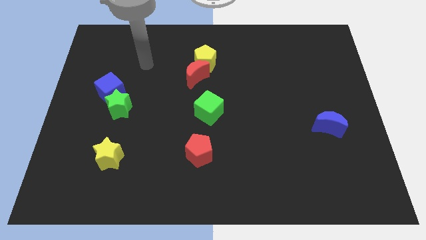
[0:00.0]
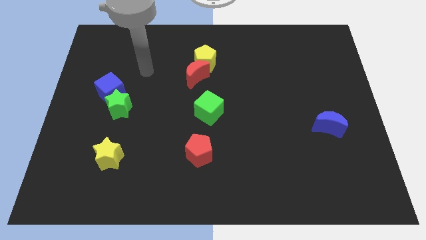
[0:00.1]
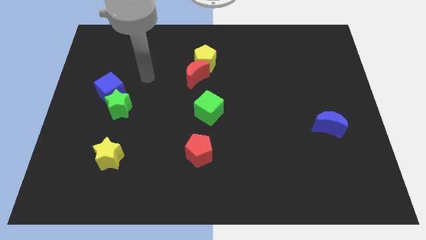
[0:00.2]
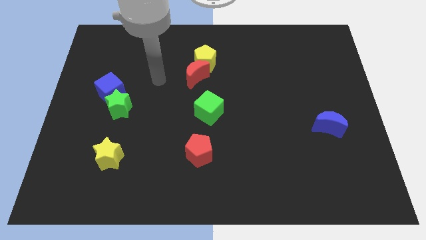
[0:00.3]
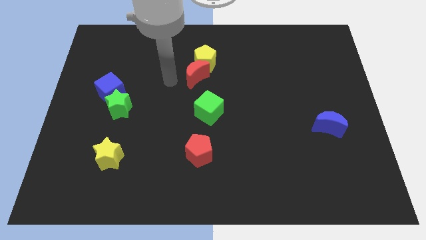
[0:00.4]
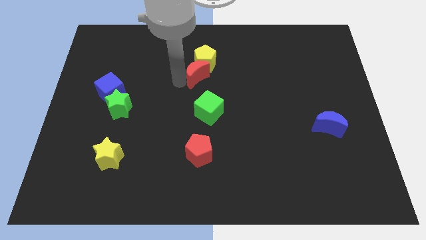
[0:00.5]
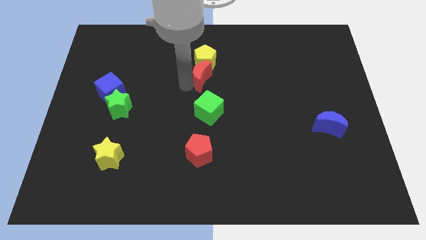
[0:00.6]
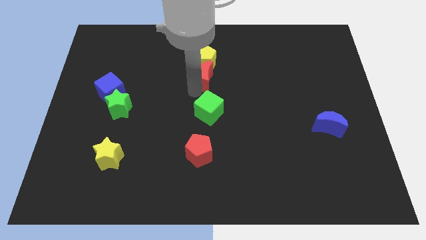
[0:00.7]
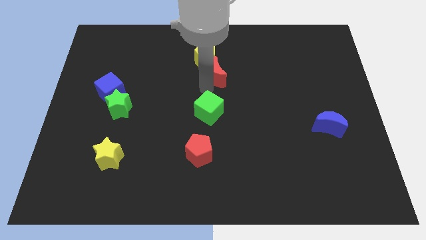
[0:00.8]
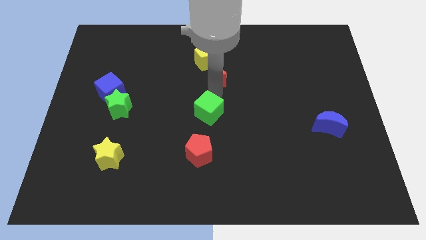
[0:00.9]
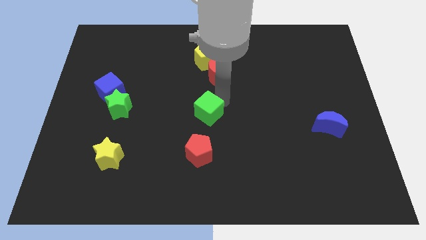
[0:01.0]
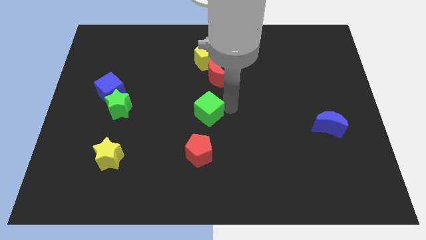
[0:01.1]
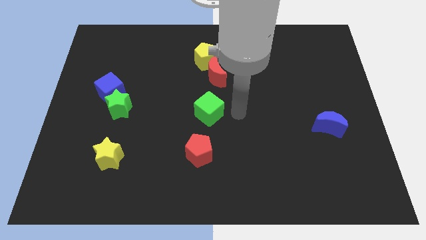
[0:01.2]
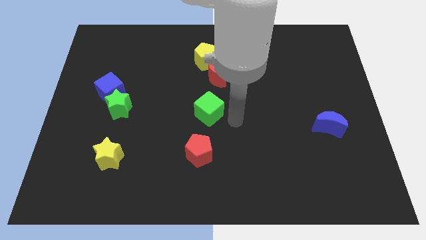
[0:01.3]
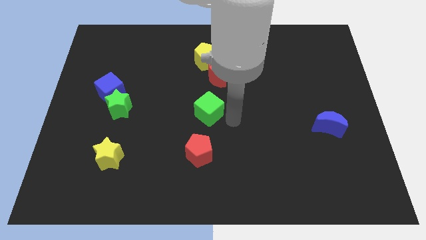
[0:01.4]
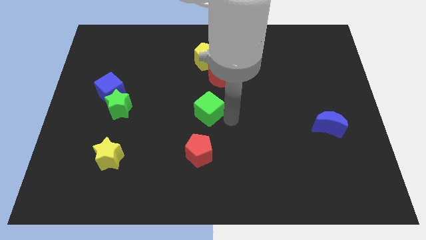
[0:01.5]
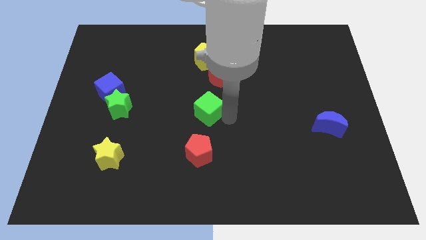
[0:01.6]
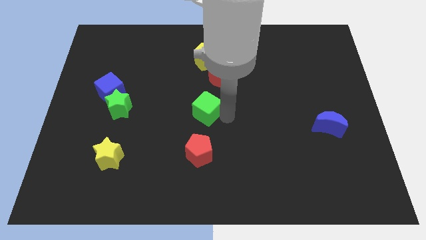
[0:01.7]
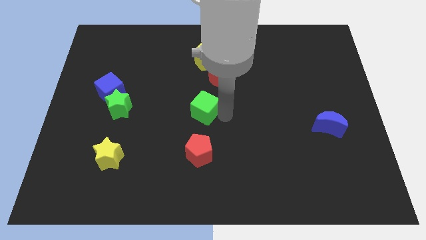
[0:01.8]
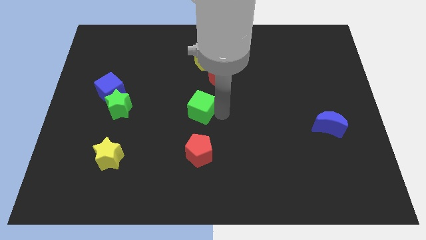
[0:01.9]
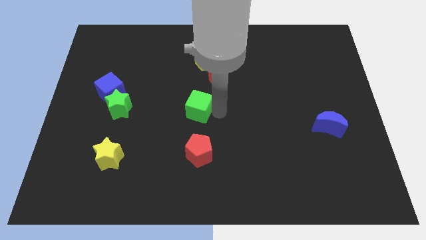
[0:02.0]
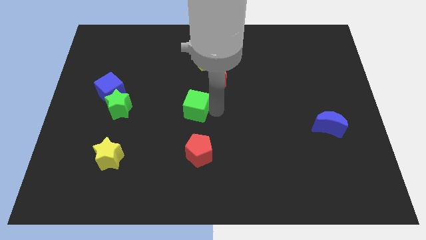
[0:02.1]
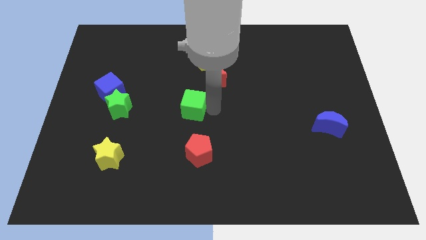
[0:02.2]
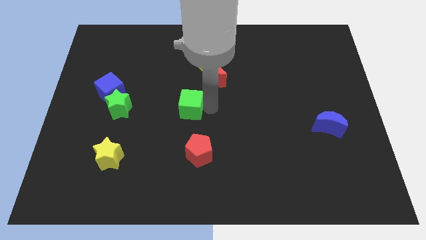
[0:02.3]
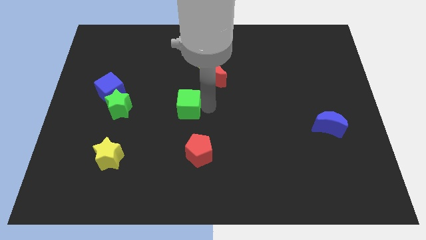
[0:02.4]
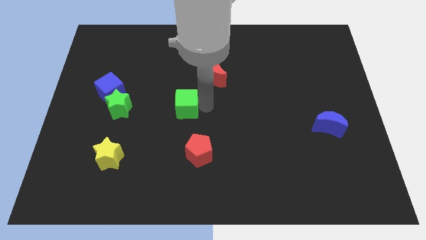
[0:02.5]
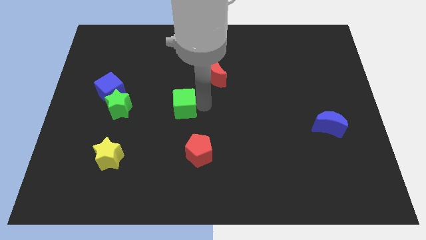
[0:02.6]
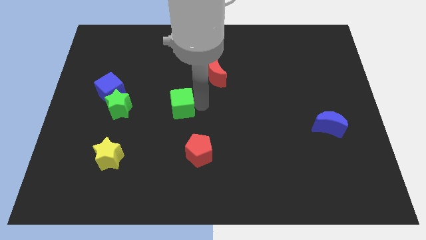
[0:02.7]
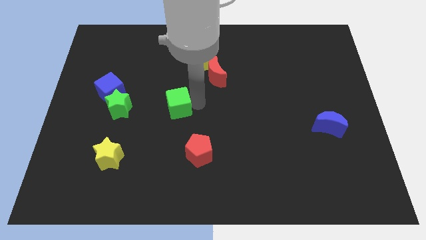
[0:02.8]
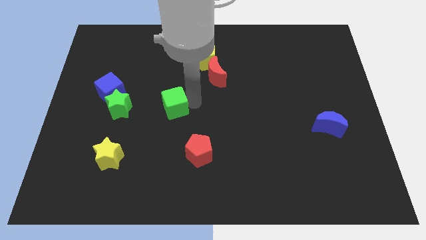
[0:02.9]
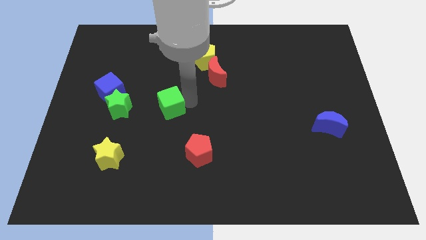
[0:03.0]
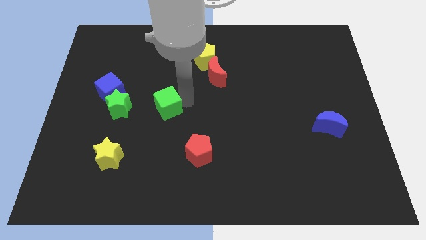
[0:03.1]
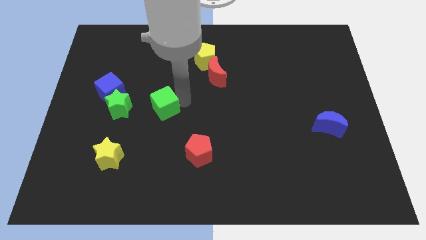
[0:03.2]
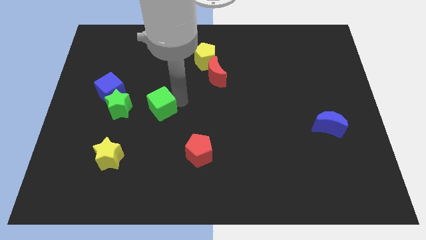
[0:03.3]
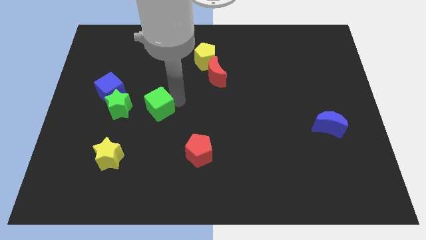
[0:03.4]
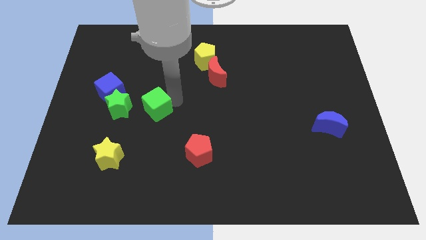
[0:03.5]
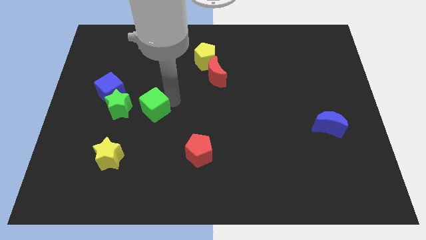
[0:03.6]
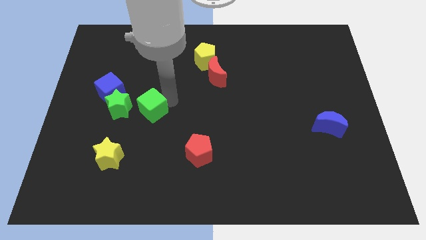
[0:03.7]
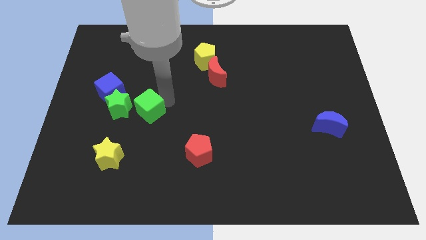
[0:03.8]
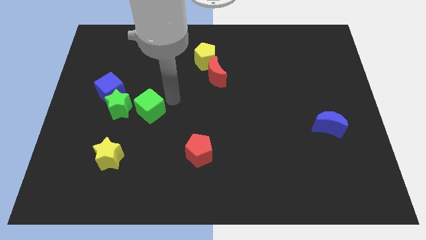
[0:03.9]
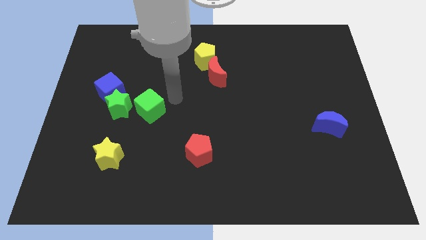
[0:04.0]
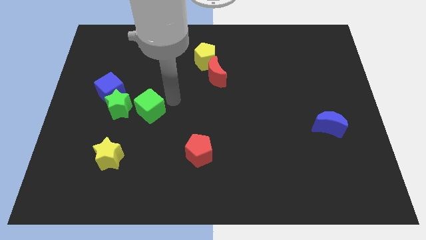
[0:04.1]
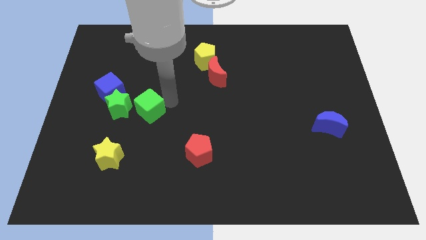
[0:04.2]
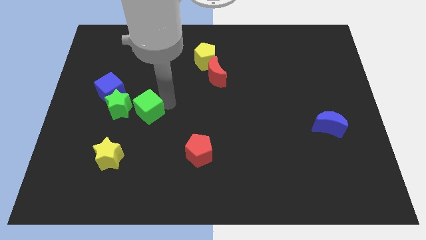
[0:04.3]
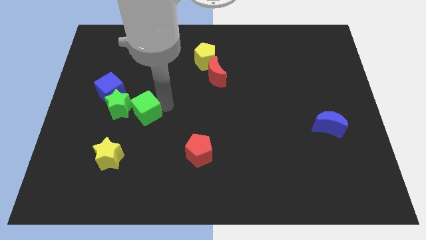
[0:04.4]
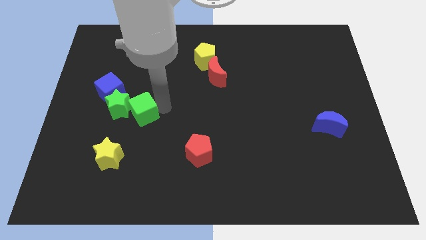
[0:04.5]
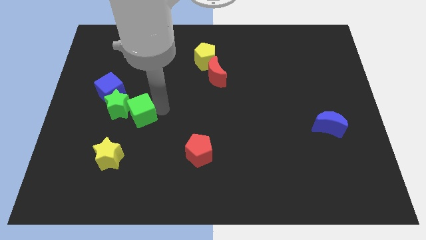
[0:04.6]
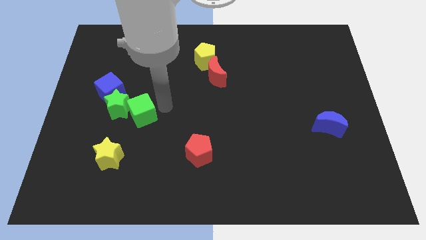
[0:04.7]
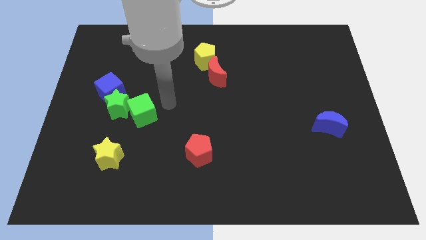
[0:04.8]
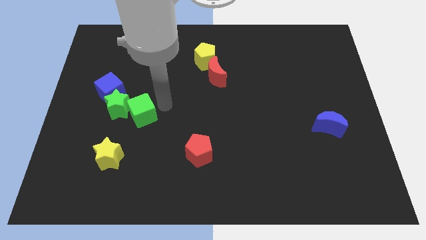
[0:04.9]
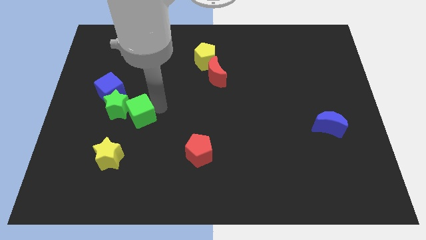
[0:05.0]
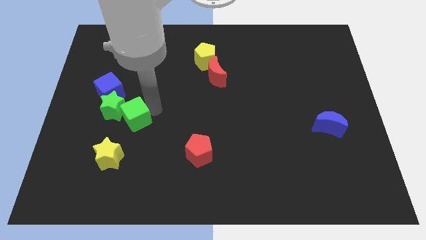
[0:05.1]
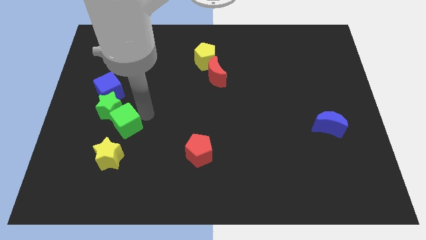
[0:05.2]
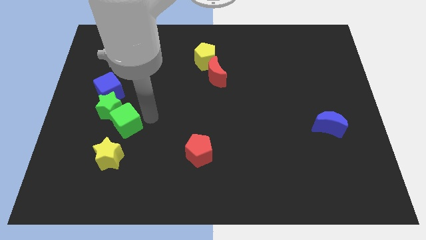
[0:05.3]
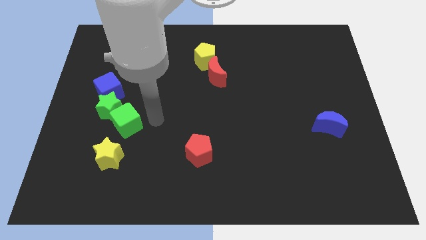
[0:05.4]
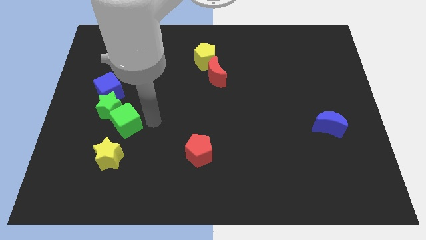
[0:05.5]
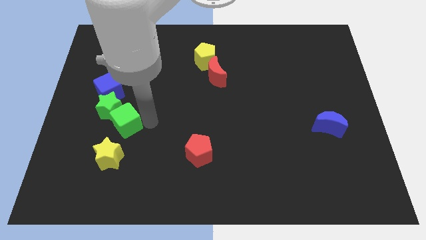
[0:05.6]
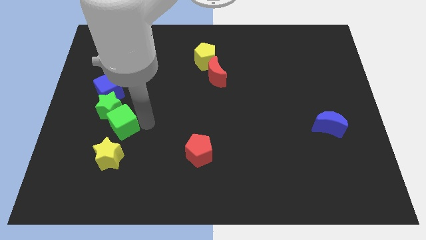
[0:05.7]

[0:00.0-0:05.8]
put the green cube below the blue cube

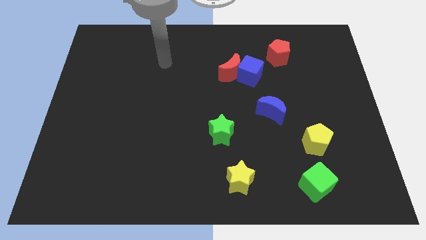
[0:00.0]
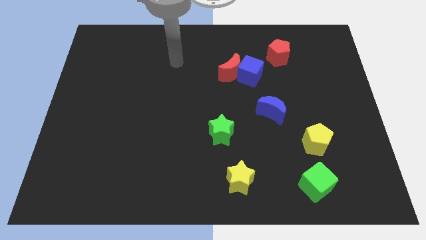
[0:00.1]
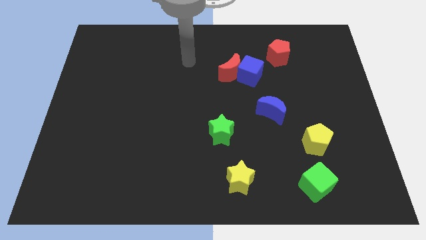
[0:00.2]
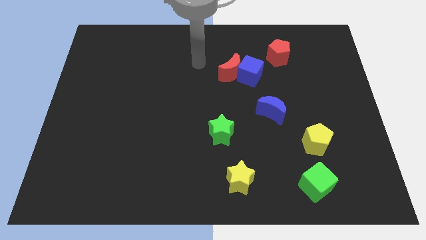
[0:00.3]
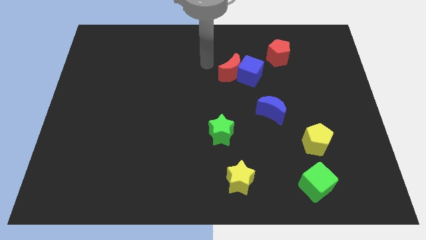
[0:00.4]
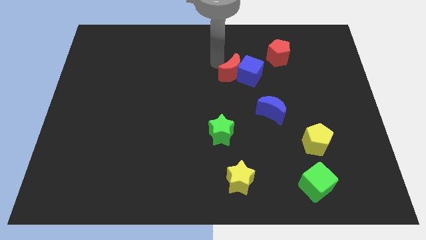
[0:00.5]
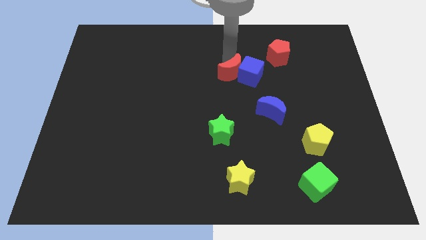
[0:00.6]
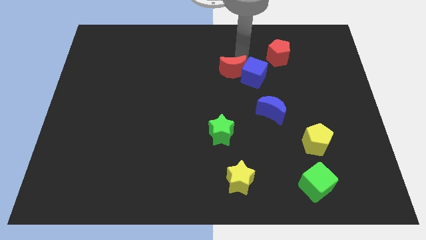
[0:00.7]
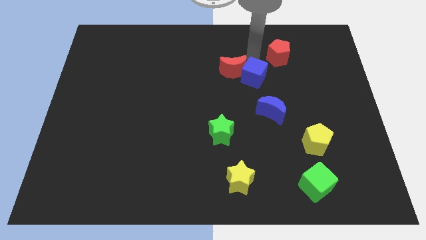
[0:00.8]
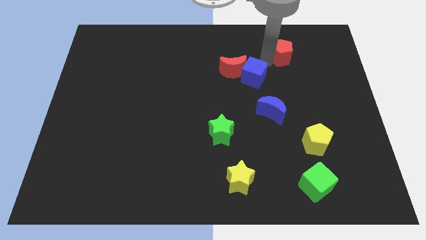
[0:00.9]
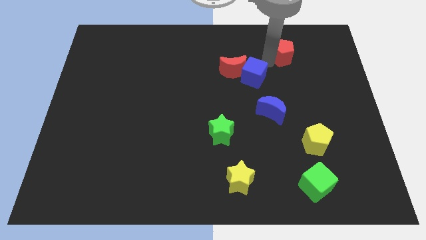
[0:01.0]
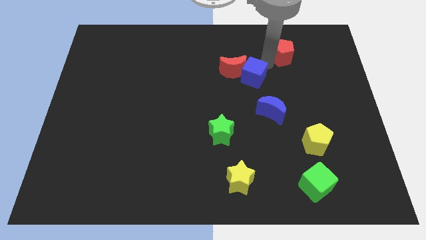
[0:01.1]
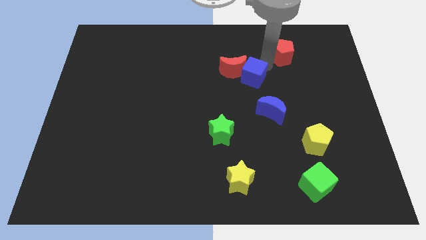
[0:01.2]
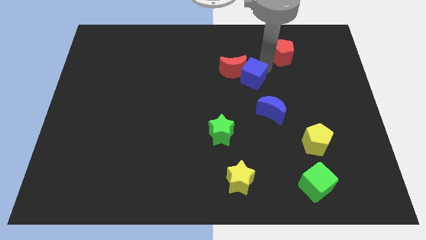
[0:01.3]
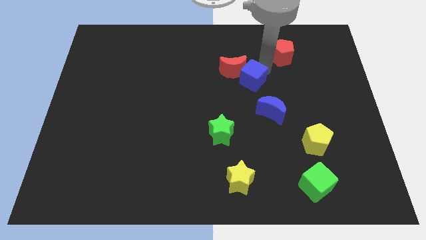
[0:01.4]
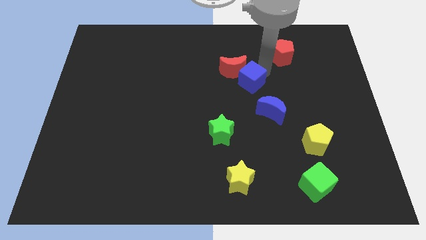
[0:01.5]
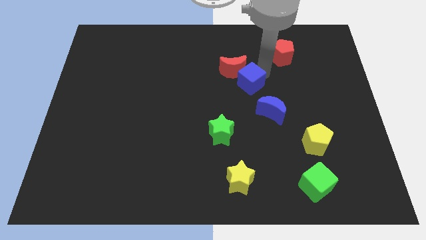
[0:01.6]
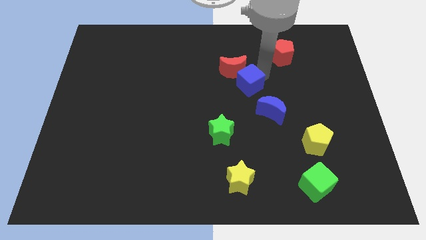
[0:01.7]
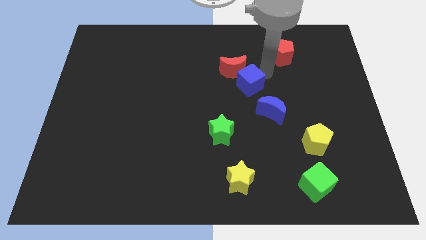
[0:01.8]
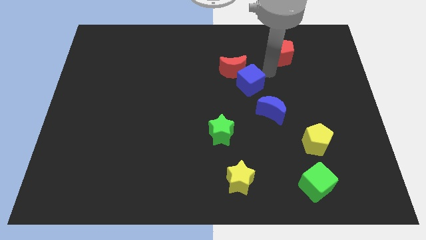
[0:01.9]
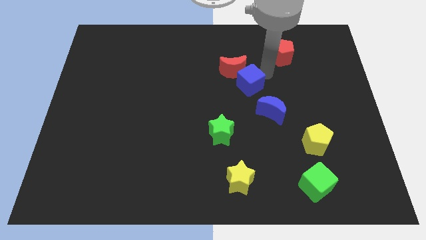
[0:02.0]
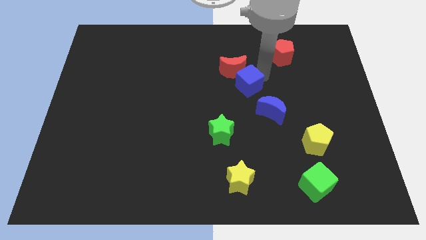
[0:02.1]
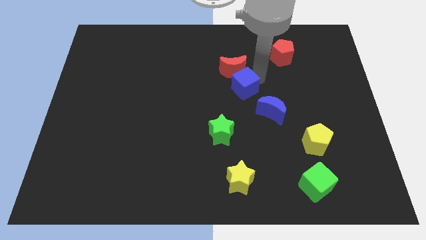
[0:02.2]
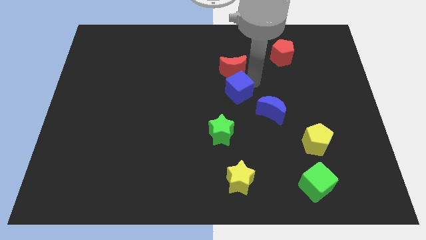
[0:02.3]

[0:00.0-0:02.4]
push the blue cube to the top side of the green star
